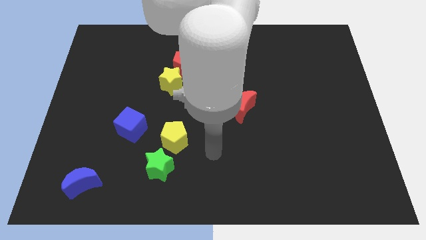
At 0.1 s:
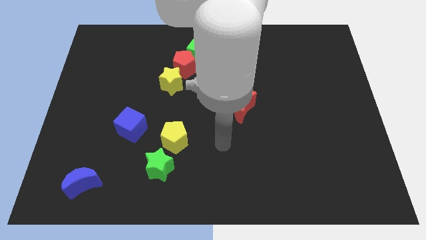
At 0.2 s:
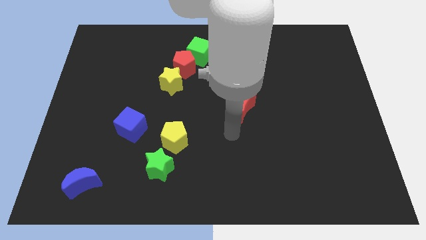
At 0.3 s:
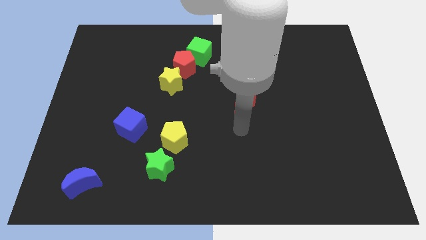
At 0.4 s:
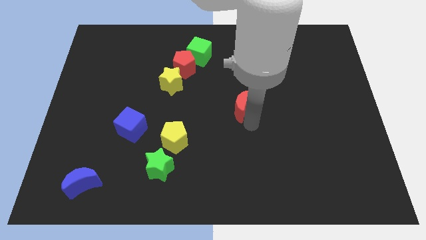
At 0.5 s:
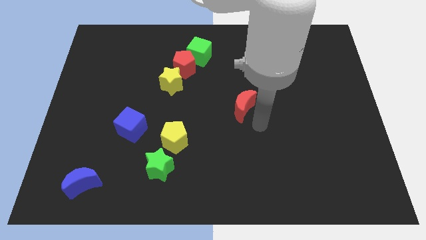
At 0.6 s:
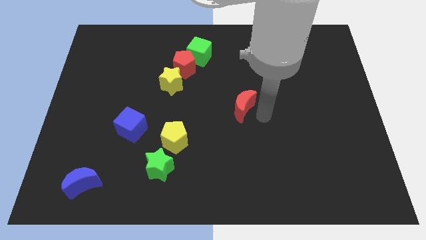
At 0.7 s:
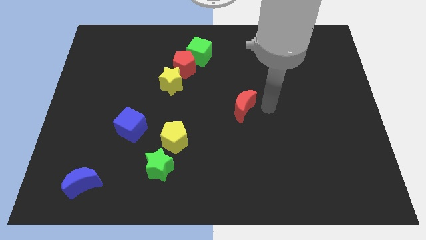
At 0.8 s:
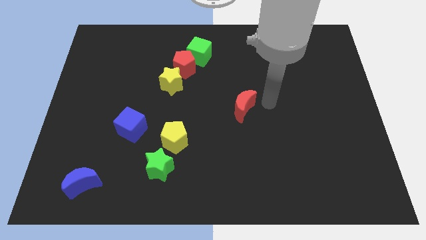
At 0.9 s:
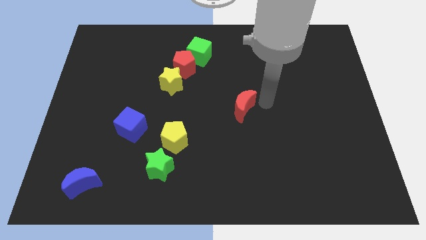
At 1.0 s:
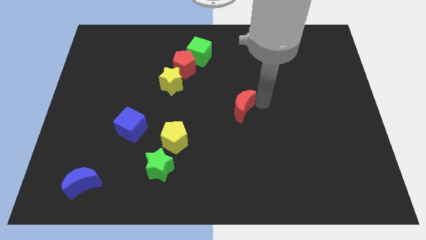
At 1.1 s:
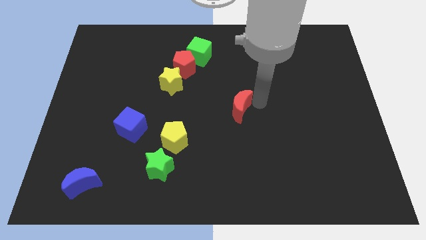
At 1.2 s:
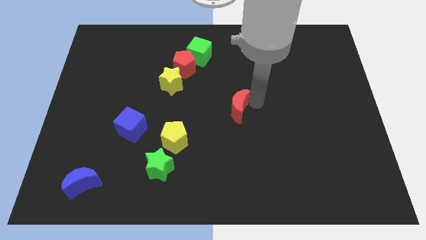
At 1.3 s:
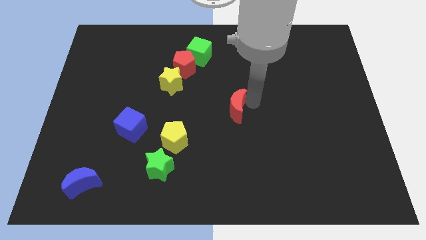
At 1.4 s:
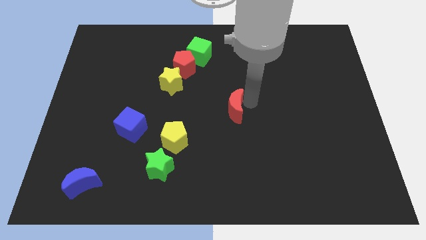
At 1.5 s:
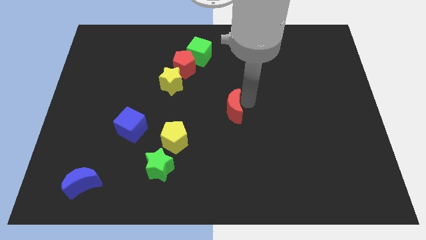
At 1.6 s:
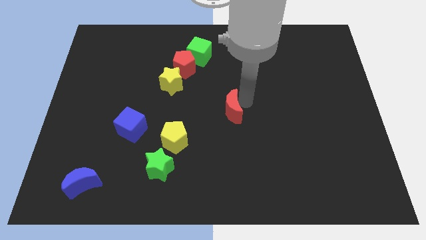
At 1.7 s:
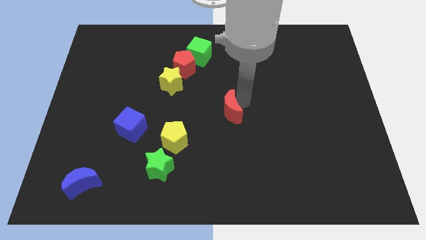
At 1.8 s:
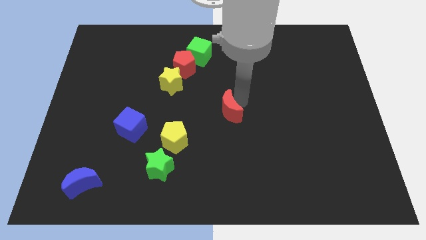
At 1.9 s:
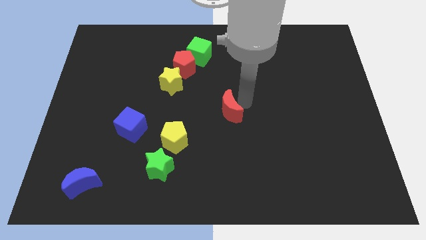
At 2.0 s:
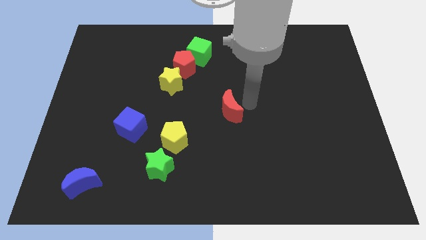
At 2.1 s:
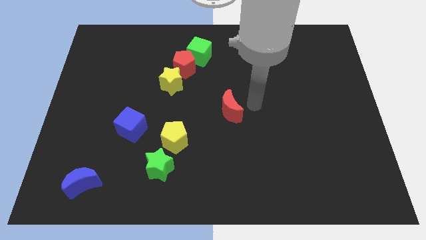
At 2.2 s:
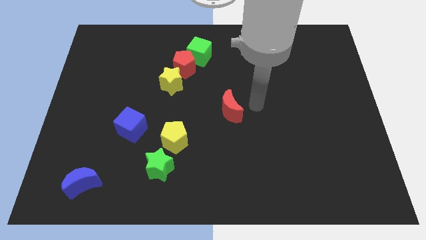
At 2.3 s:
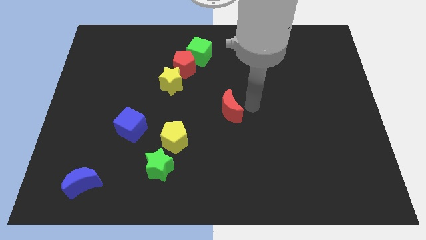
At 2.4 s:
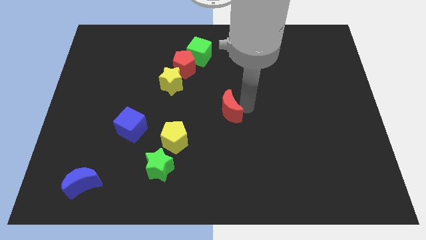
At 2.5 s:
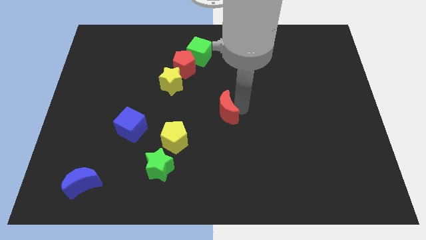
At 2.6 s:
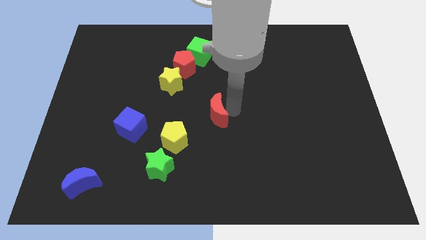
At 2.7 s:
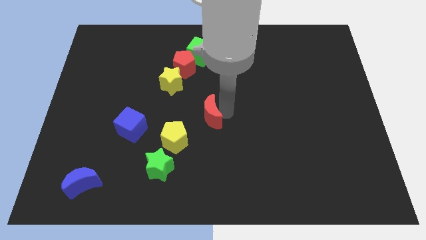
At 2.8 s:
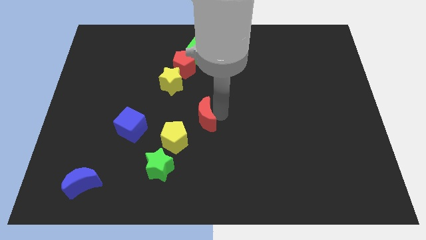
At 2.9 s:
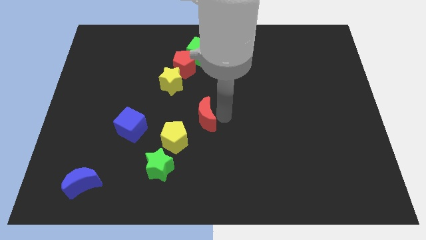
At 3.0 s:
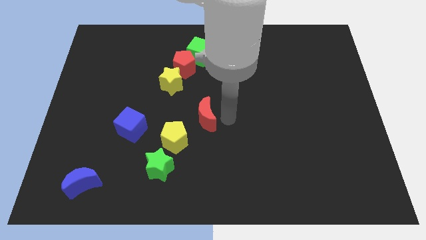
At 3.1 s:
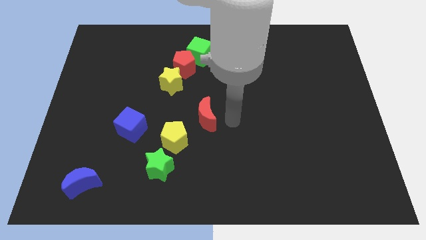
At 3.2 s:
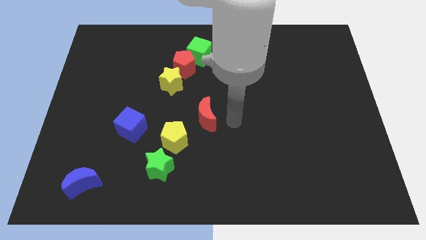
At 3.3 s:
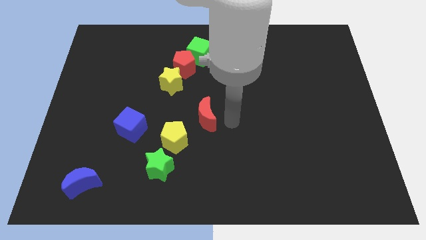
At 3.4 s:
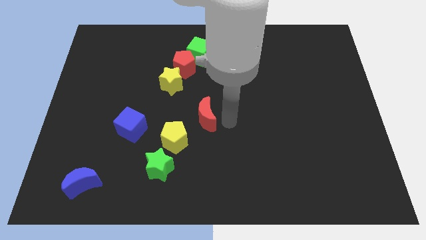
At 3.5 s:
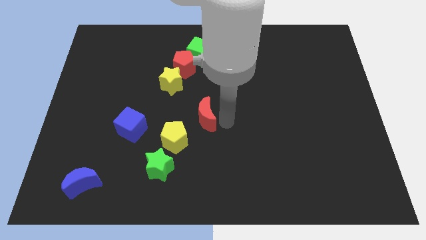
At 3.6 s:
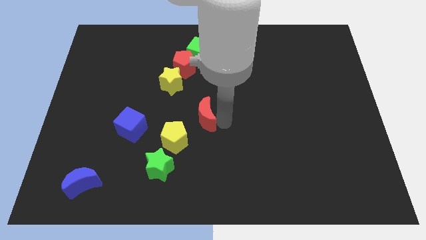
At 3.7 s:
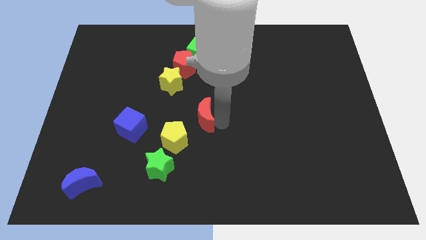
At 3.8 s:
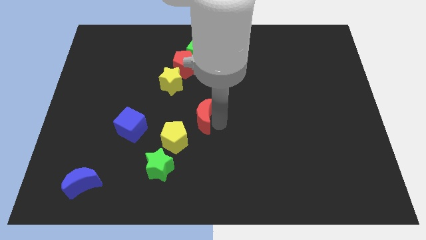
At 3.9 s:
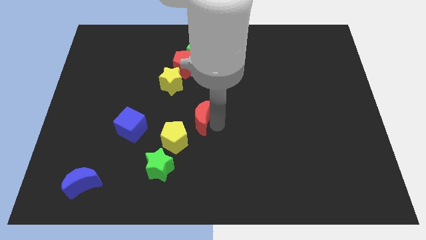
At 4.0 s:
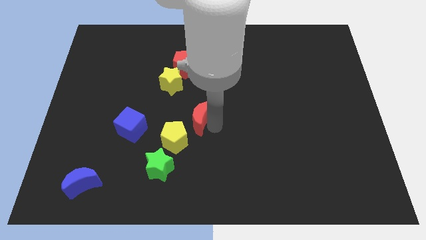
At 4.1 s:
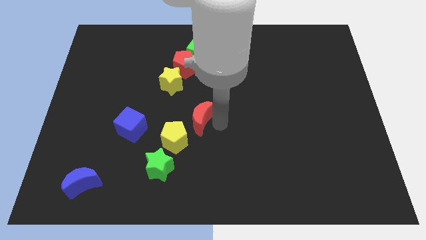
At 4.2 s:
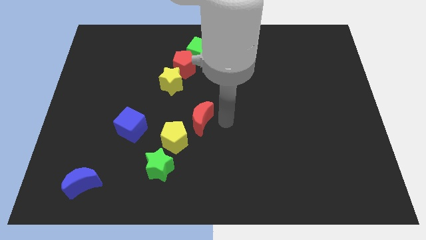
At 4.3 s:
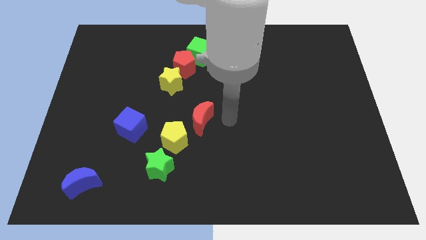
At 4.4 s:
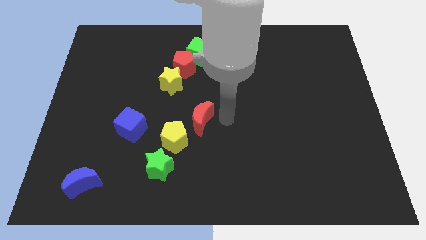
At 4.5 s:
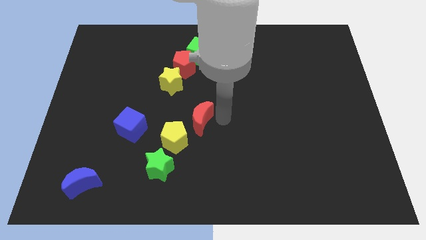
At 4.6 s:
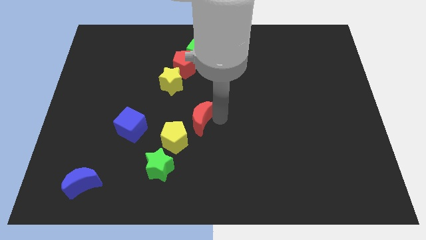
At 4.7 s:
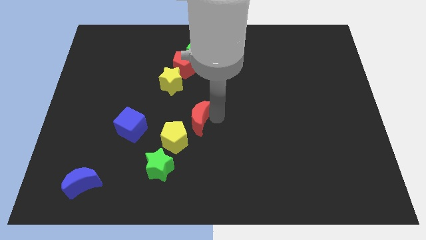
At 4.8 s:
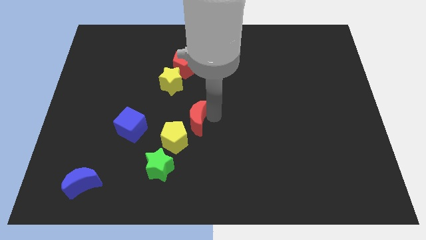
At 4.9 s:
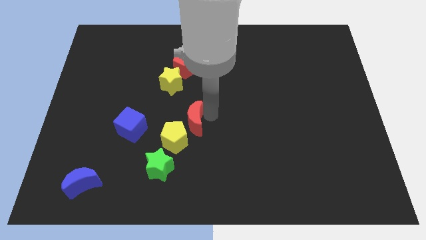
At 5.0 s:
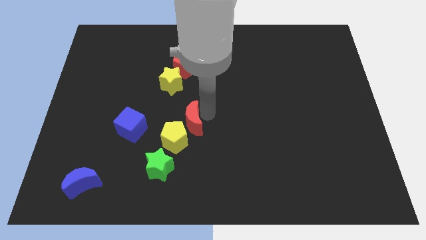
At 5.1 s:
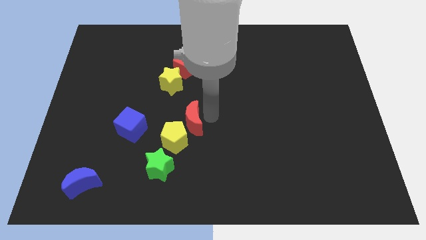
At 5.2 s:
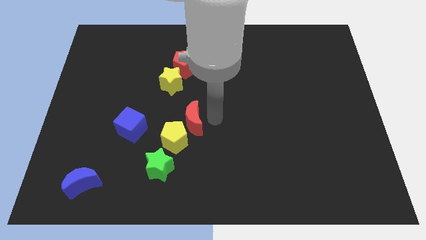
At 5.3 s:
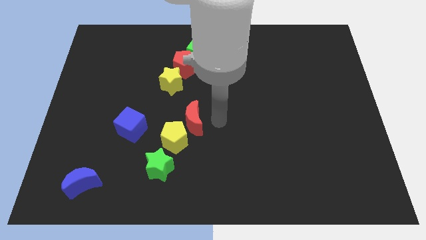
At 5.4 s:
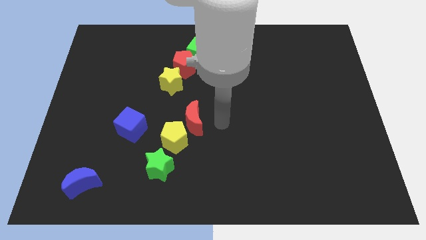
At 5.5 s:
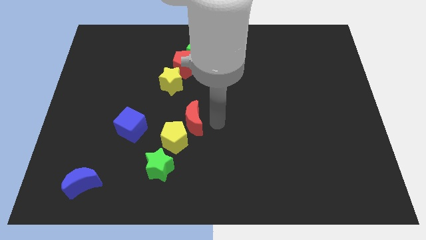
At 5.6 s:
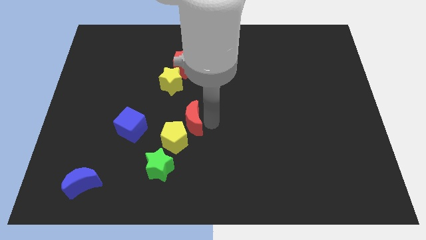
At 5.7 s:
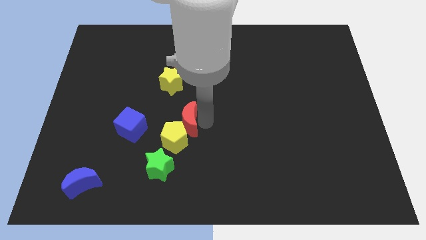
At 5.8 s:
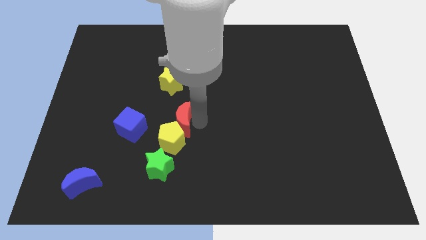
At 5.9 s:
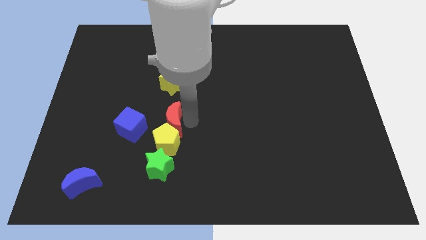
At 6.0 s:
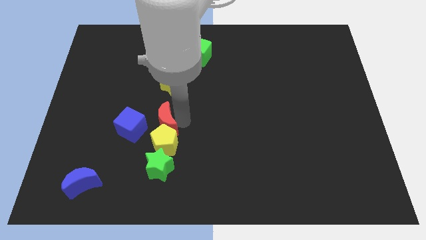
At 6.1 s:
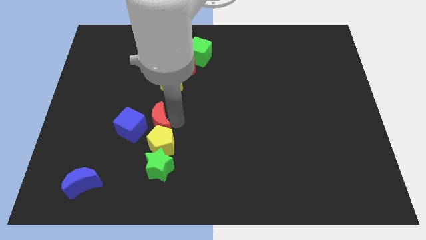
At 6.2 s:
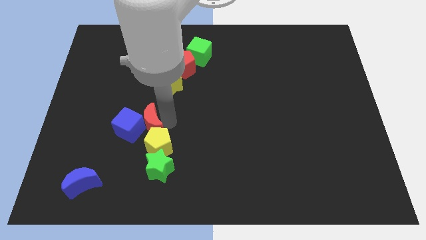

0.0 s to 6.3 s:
push the red moon close to the blue cube
